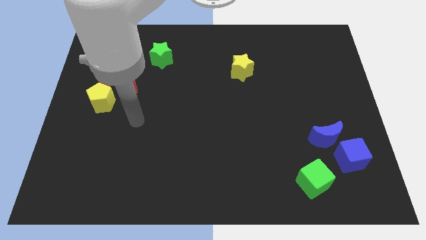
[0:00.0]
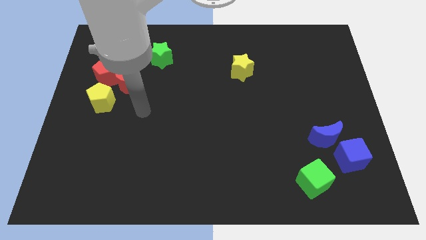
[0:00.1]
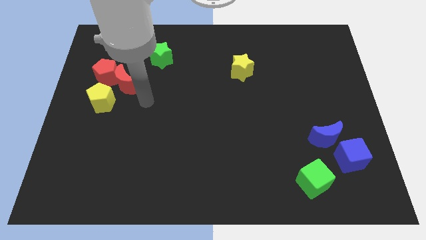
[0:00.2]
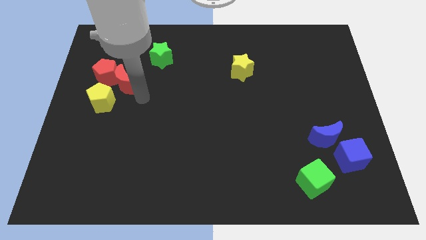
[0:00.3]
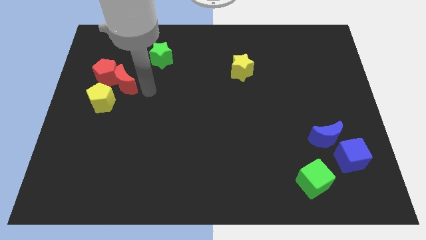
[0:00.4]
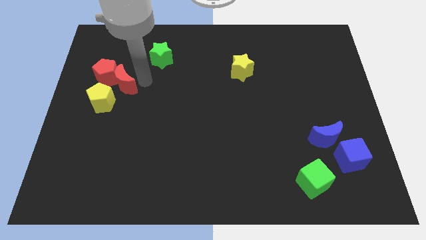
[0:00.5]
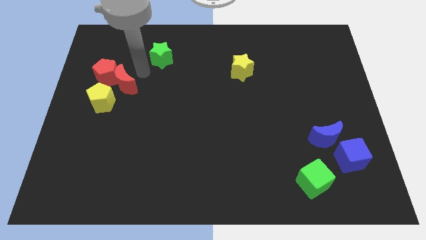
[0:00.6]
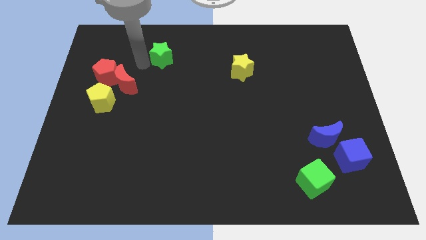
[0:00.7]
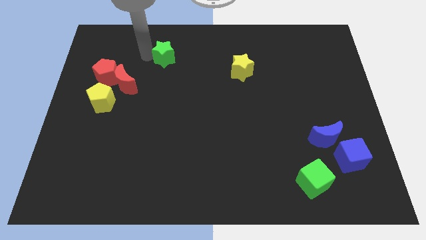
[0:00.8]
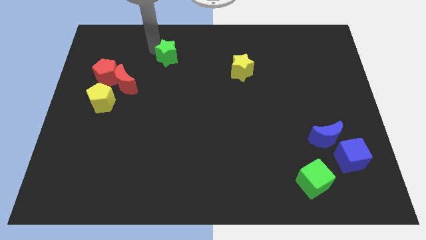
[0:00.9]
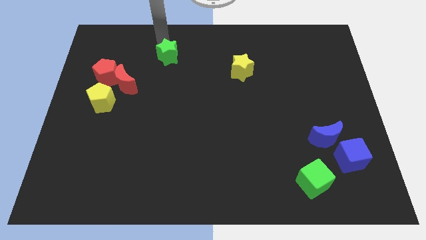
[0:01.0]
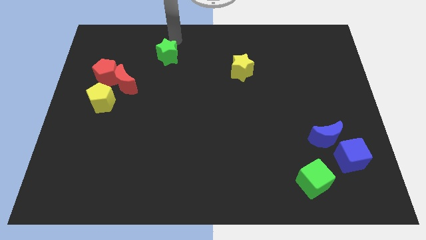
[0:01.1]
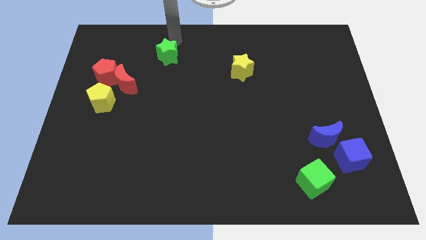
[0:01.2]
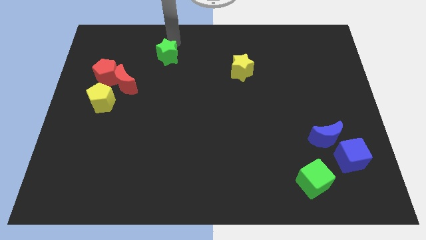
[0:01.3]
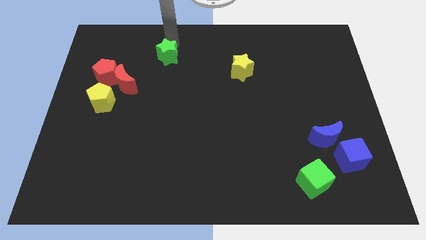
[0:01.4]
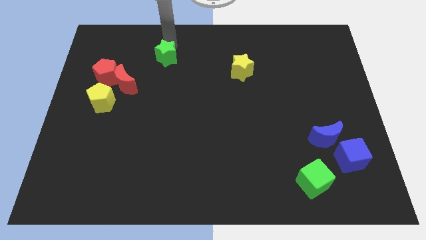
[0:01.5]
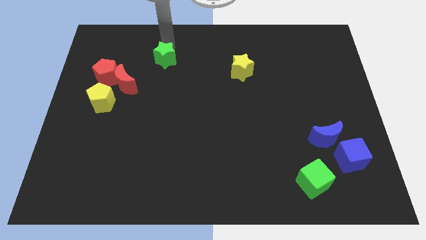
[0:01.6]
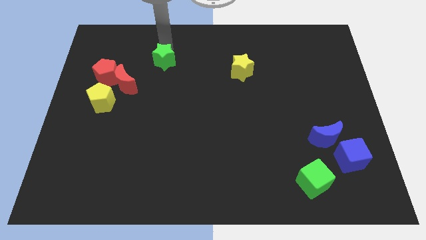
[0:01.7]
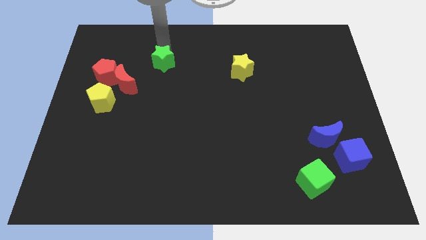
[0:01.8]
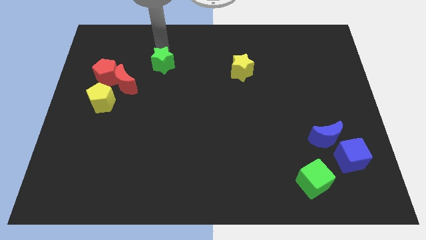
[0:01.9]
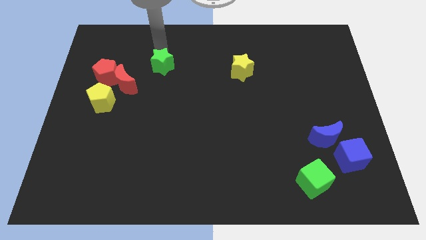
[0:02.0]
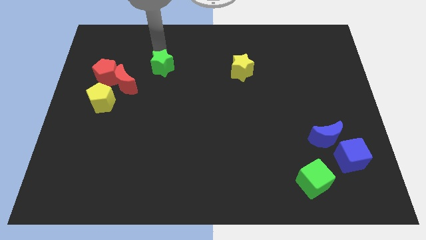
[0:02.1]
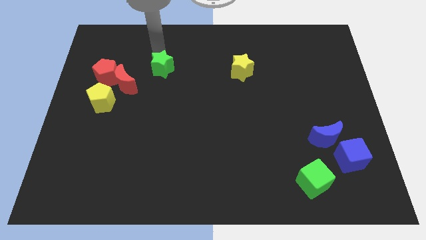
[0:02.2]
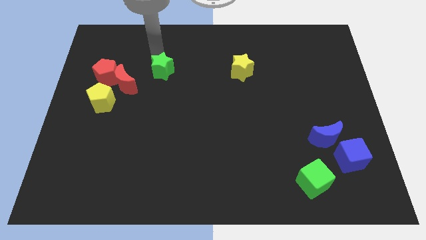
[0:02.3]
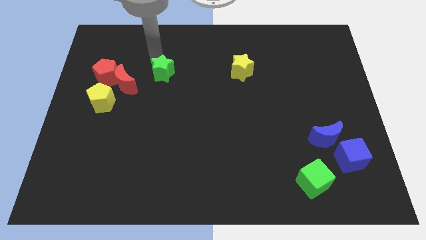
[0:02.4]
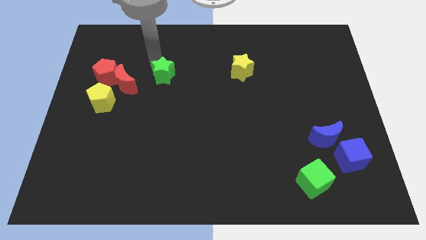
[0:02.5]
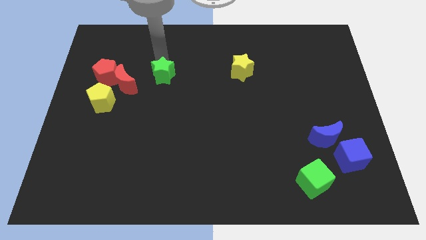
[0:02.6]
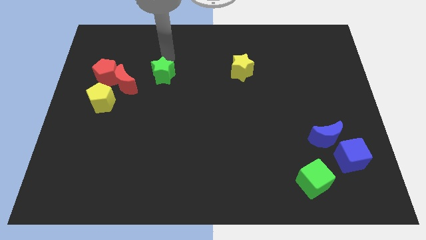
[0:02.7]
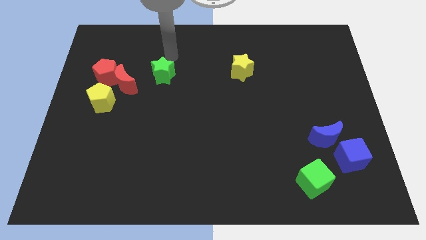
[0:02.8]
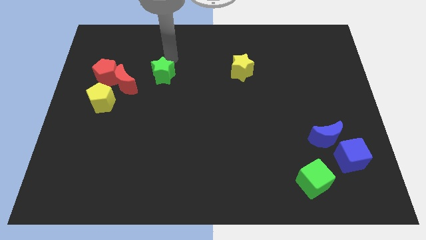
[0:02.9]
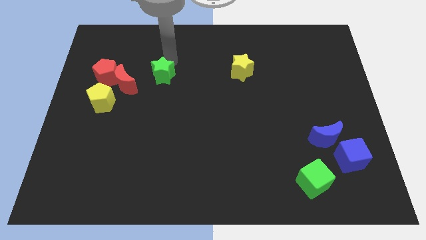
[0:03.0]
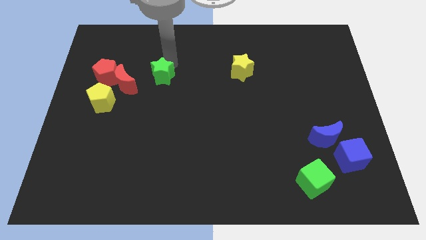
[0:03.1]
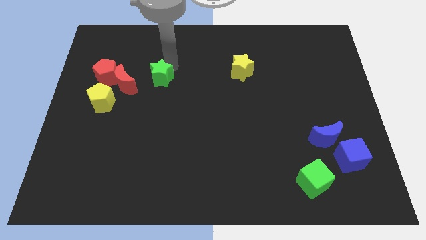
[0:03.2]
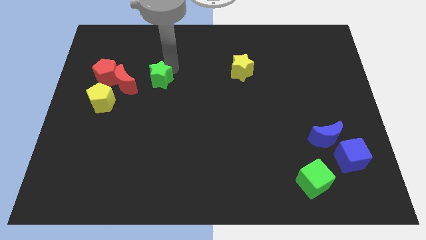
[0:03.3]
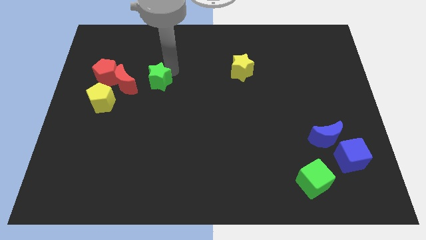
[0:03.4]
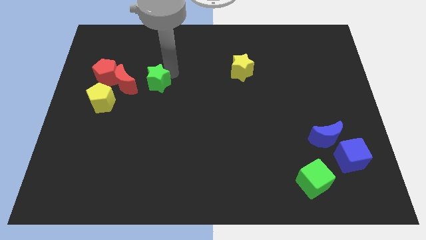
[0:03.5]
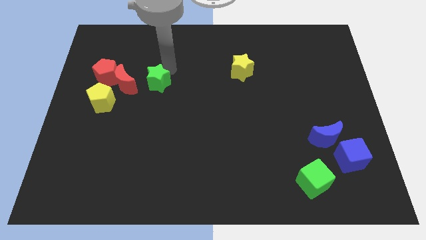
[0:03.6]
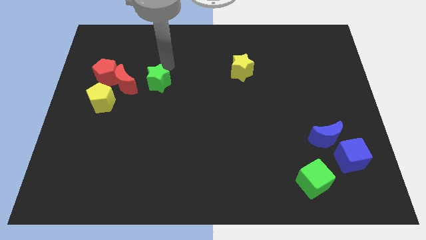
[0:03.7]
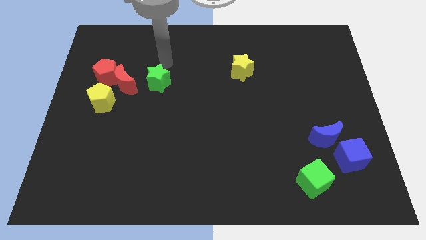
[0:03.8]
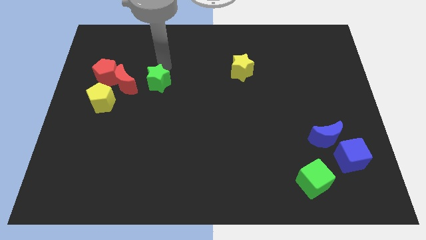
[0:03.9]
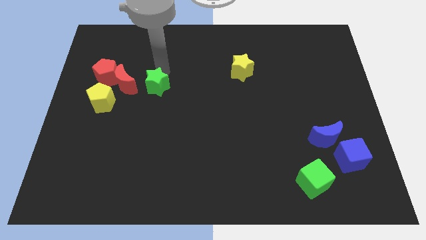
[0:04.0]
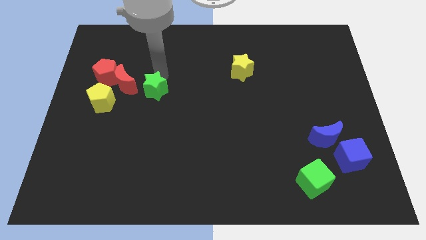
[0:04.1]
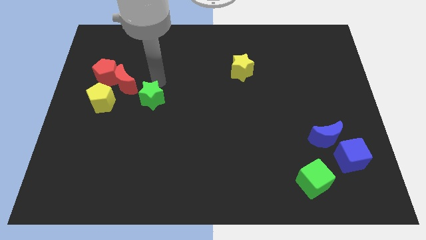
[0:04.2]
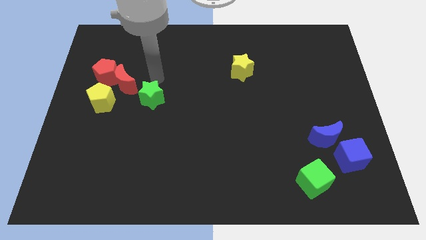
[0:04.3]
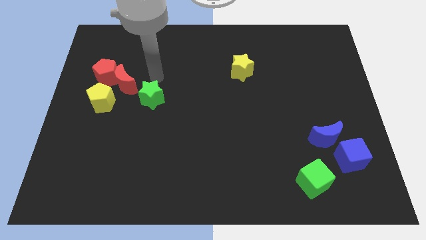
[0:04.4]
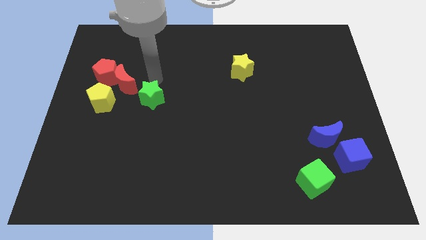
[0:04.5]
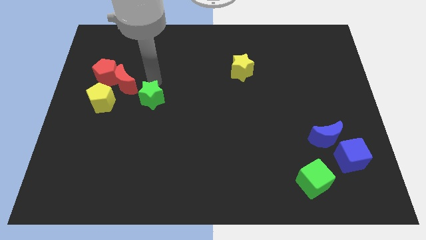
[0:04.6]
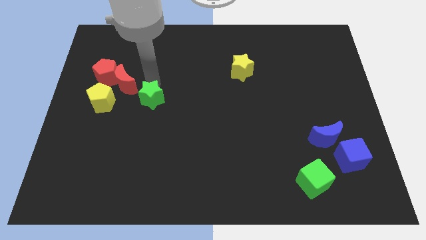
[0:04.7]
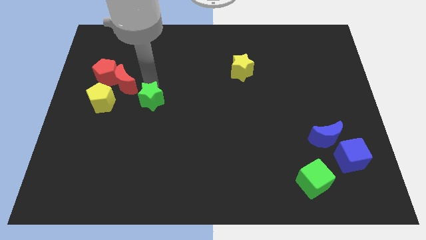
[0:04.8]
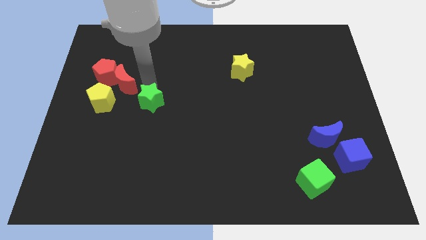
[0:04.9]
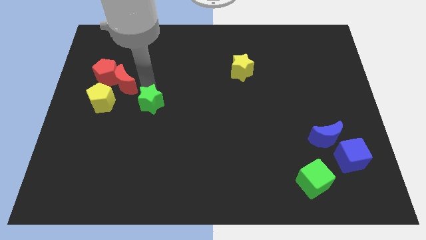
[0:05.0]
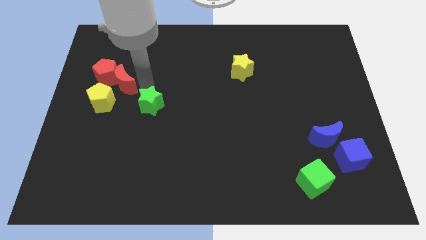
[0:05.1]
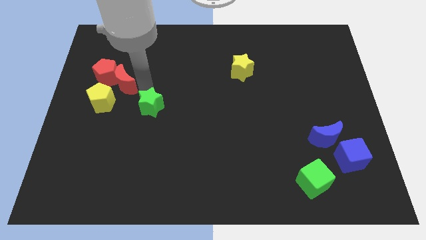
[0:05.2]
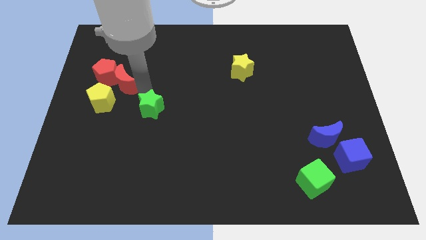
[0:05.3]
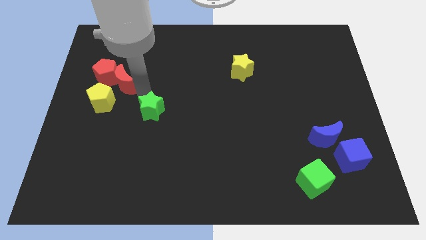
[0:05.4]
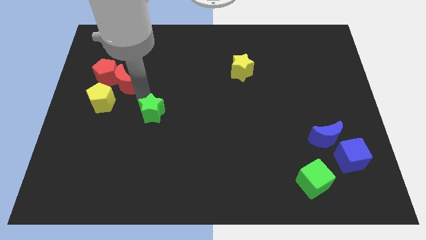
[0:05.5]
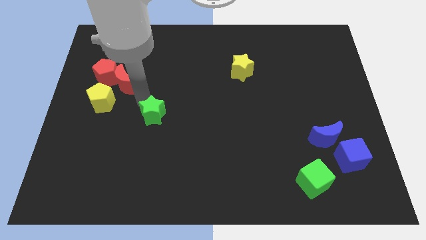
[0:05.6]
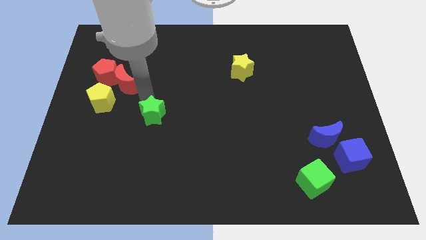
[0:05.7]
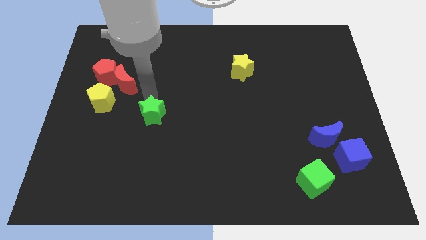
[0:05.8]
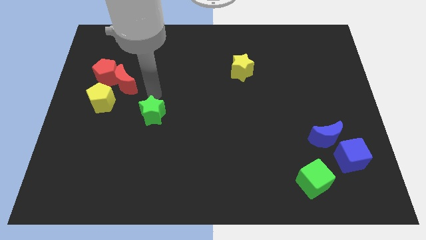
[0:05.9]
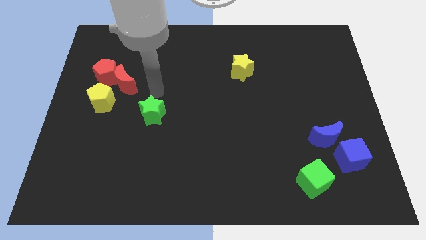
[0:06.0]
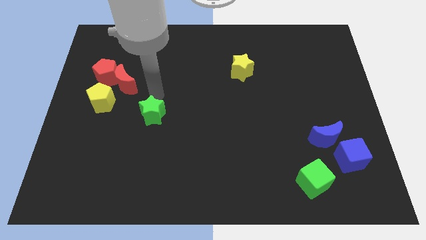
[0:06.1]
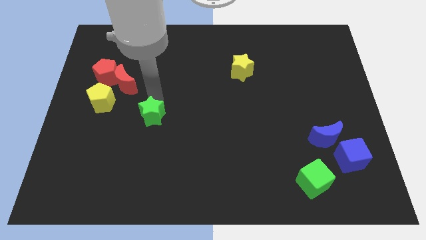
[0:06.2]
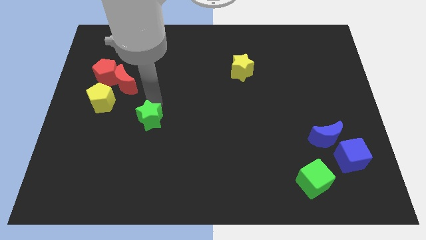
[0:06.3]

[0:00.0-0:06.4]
move the green star downwards

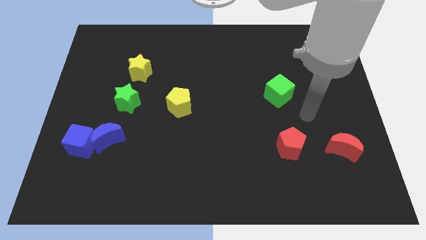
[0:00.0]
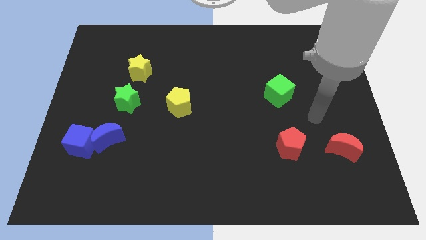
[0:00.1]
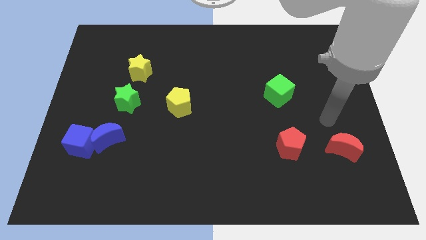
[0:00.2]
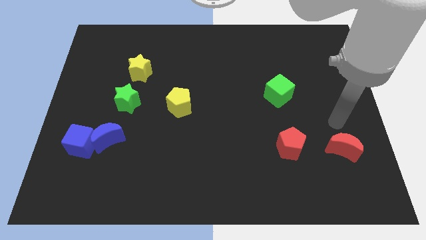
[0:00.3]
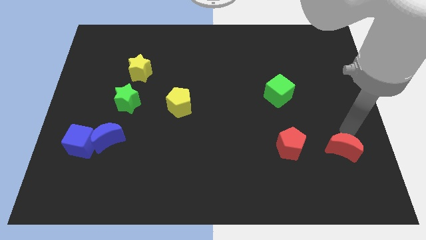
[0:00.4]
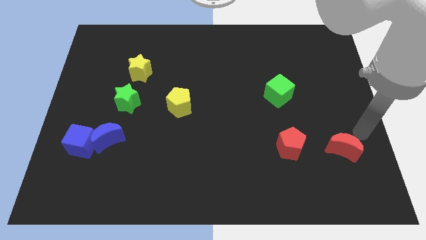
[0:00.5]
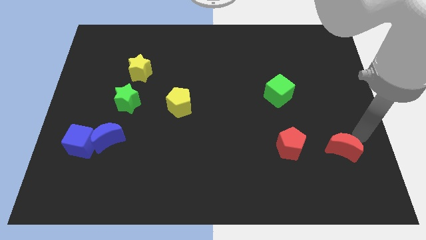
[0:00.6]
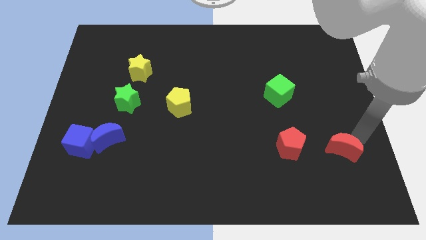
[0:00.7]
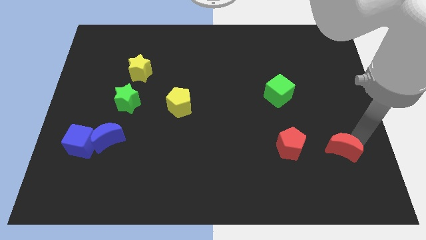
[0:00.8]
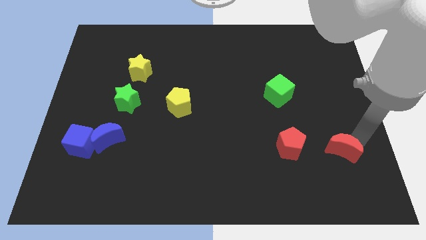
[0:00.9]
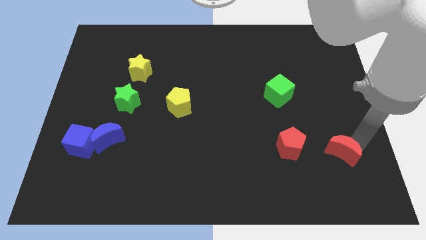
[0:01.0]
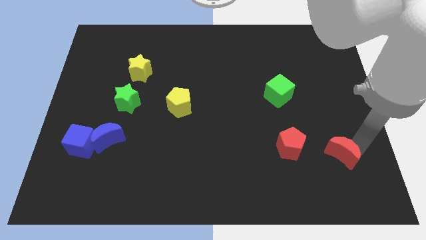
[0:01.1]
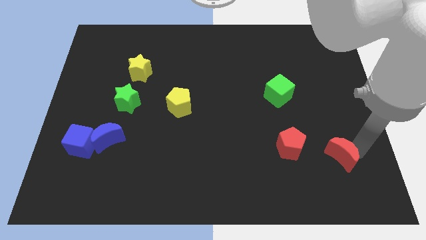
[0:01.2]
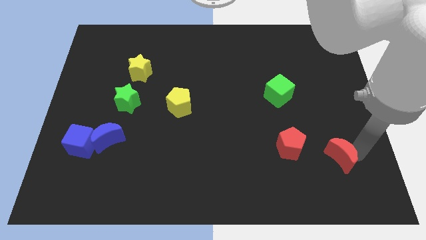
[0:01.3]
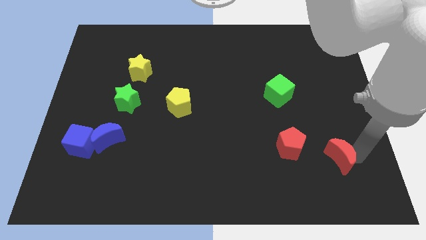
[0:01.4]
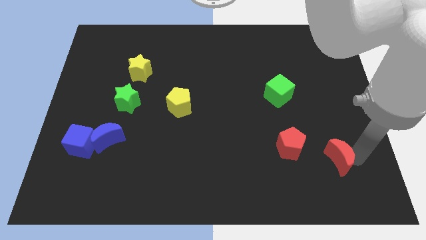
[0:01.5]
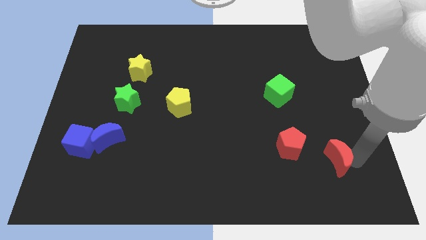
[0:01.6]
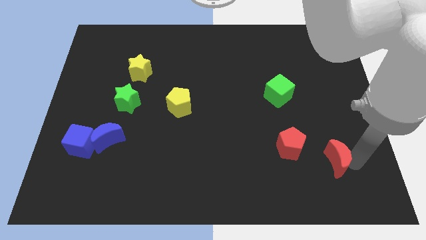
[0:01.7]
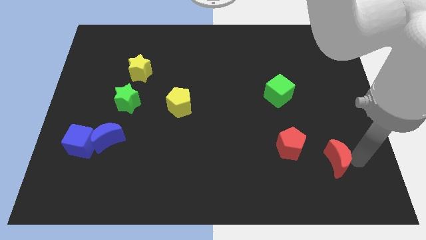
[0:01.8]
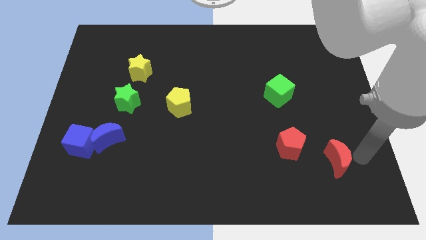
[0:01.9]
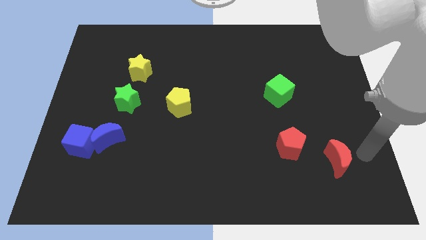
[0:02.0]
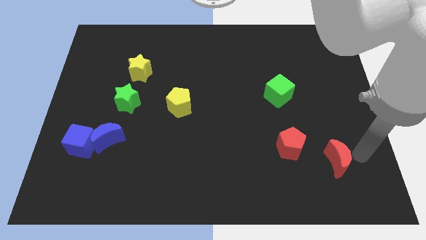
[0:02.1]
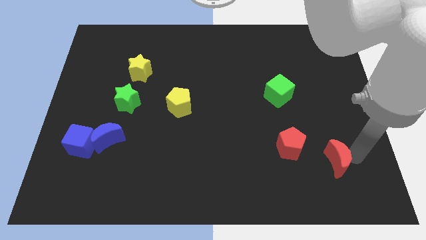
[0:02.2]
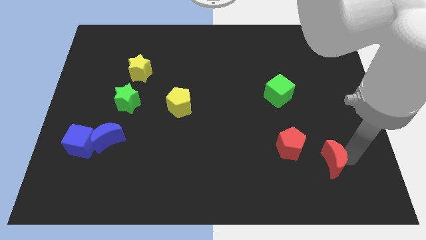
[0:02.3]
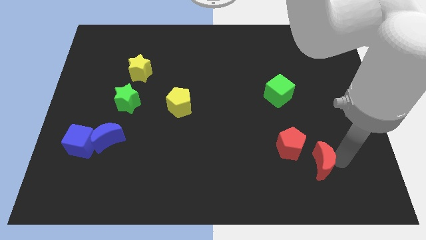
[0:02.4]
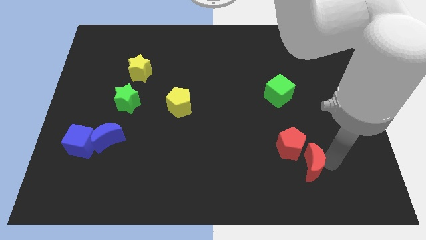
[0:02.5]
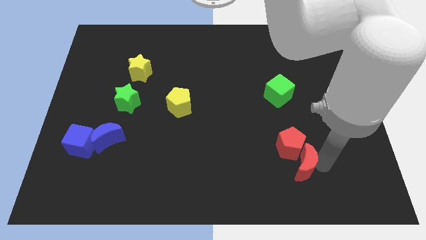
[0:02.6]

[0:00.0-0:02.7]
slightly move the red moon to the left
